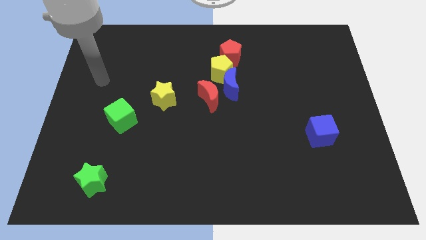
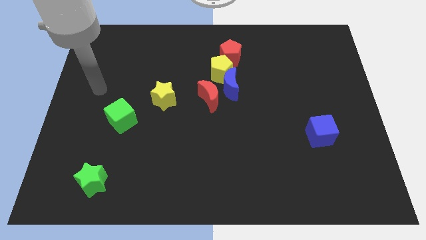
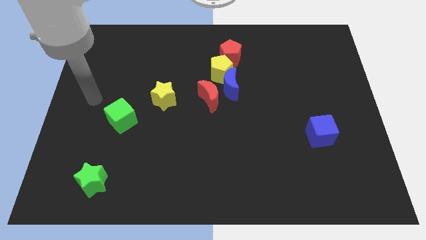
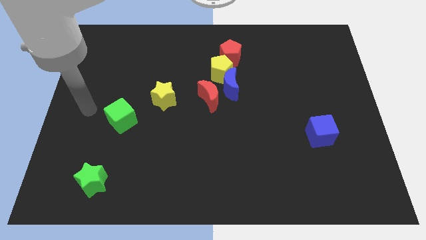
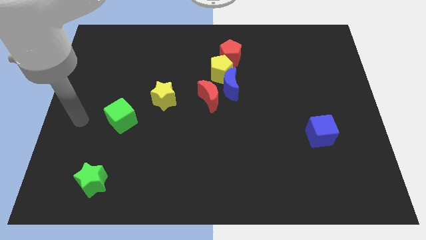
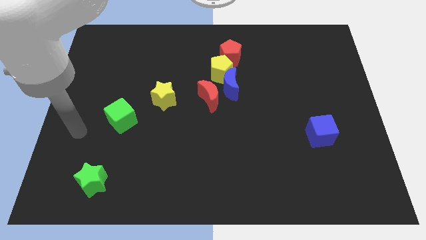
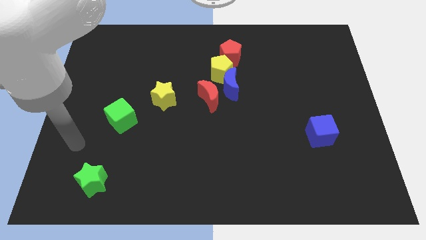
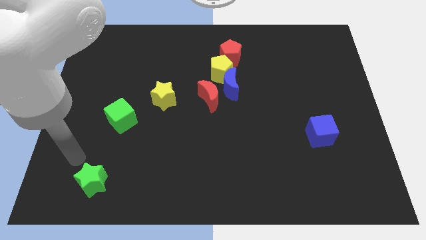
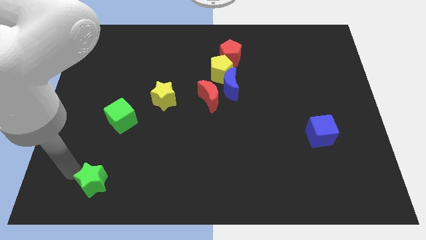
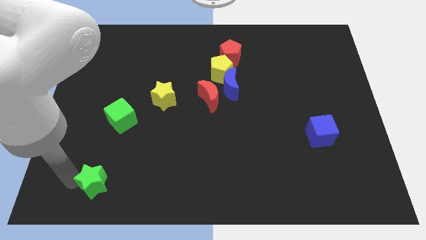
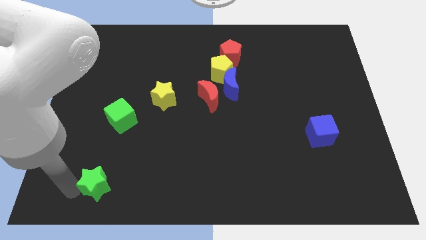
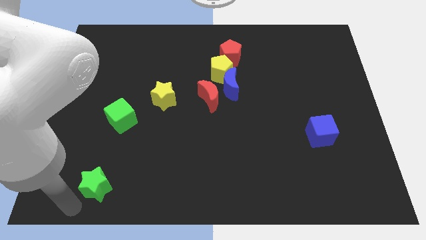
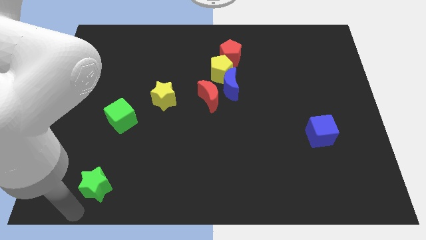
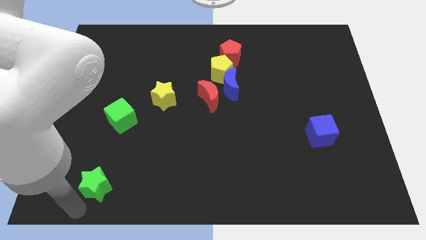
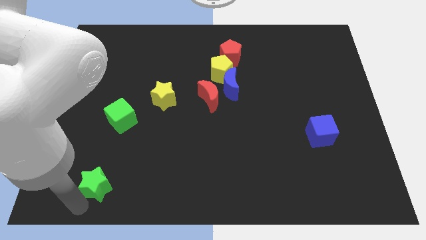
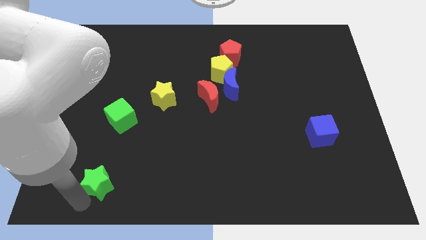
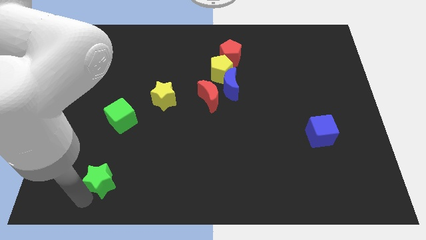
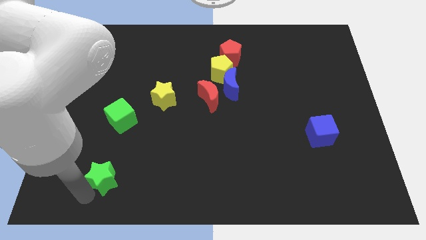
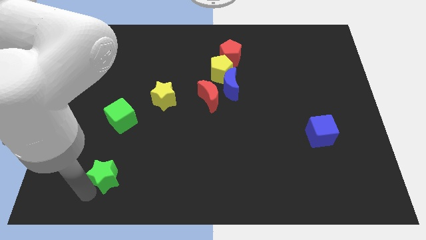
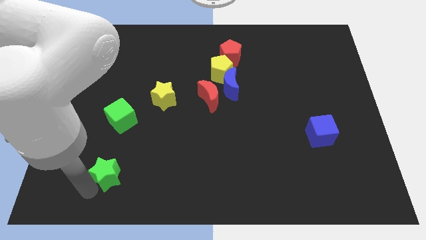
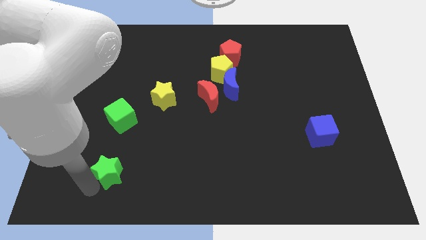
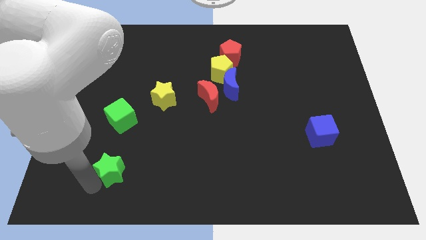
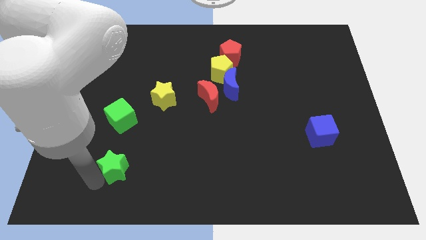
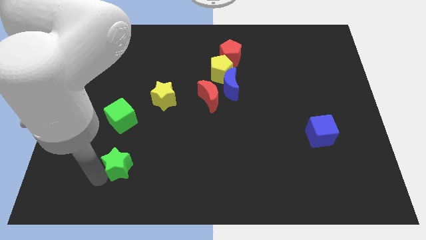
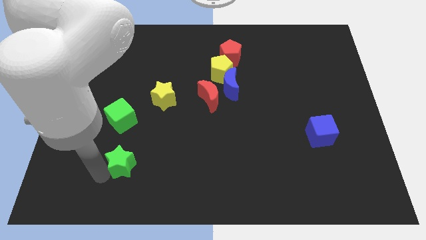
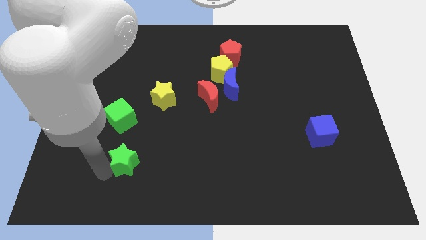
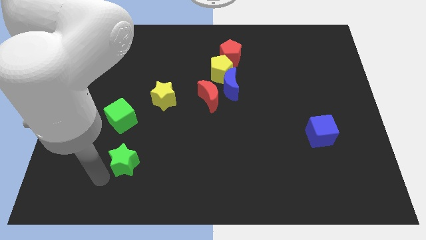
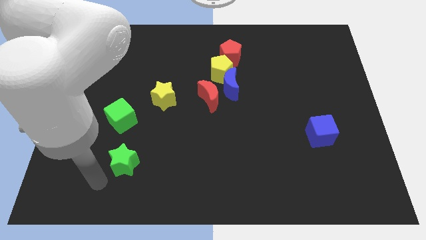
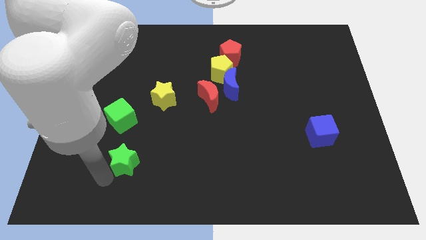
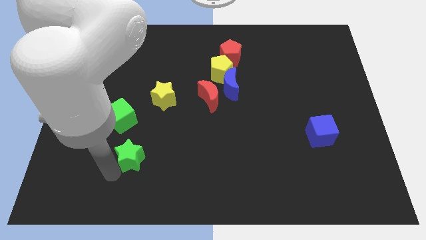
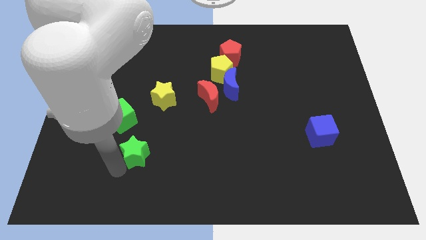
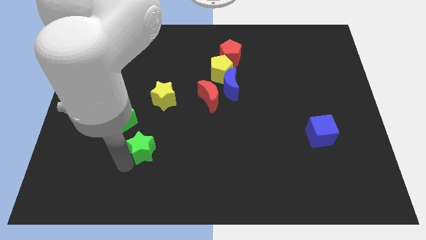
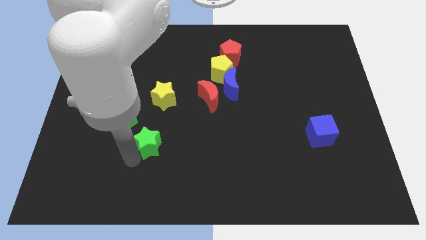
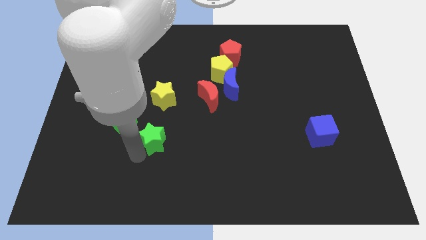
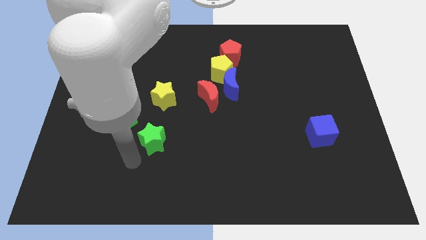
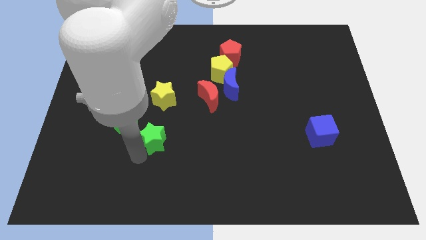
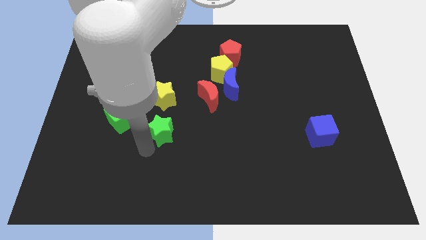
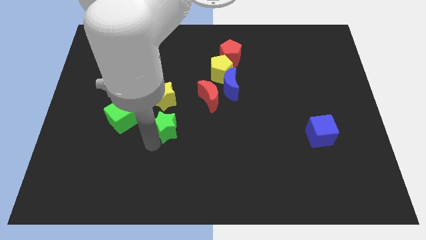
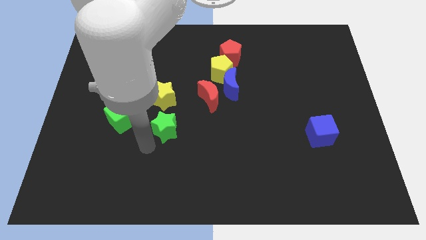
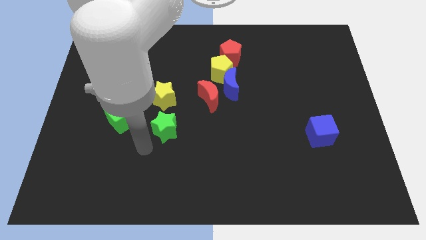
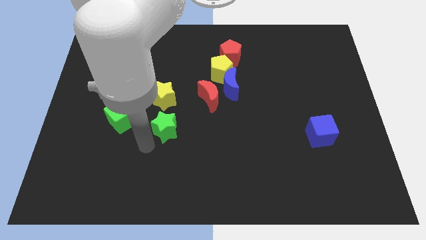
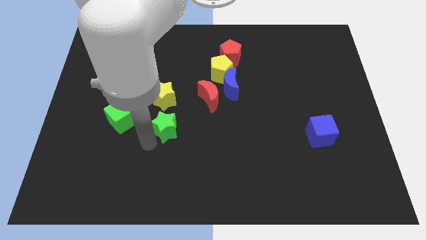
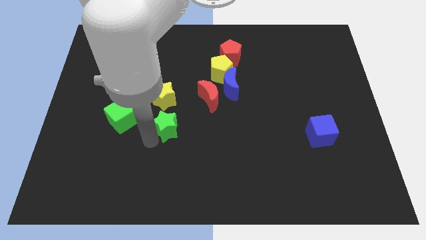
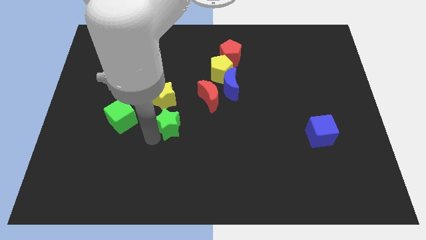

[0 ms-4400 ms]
put the green star to the bottom right of the yellow star

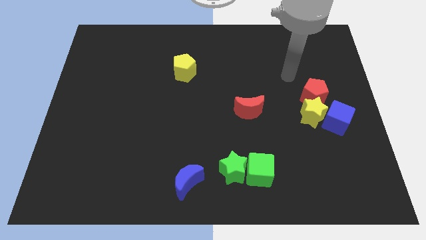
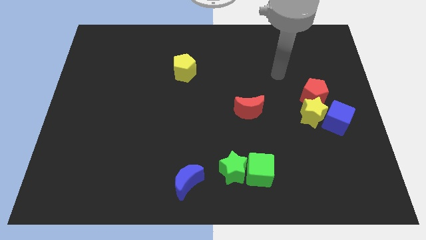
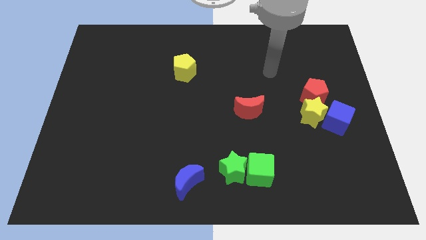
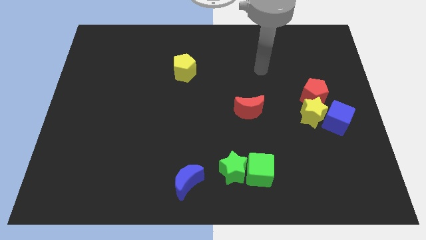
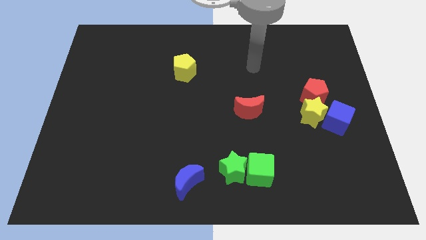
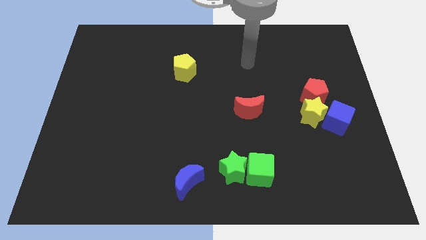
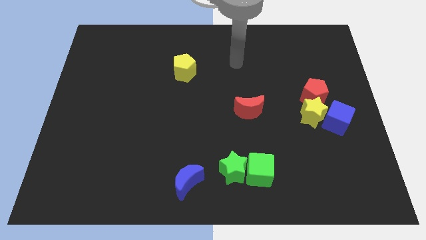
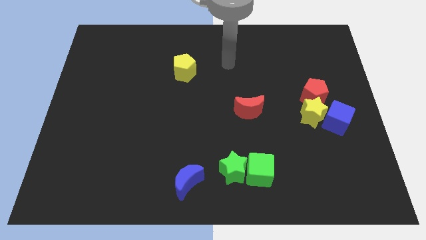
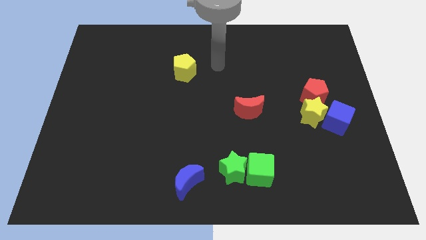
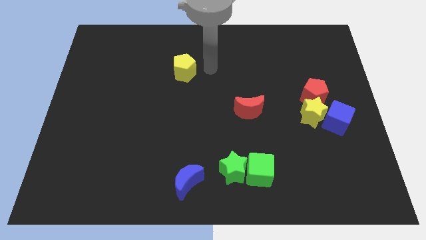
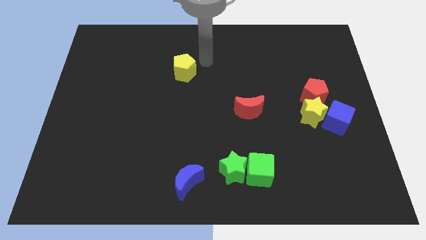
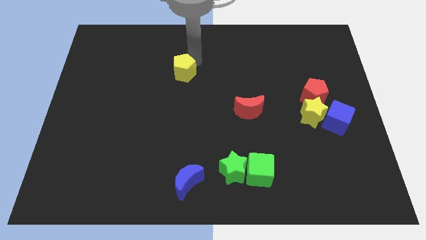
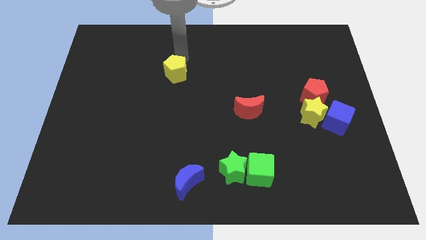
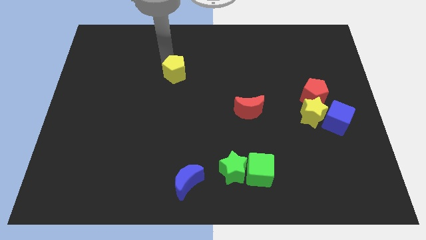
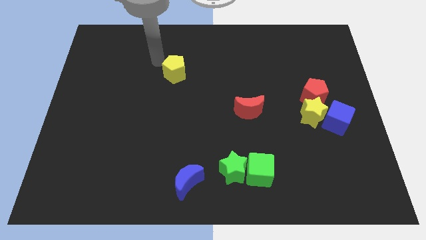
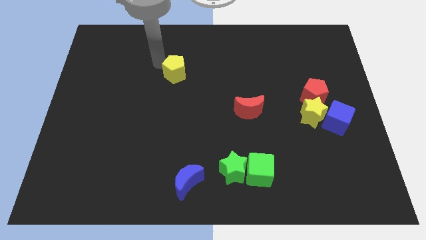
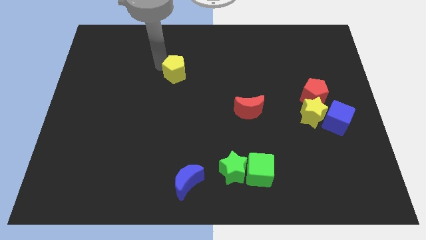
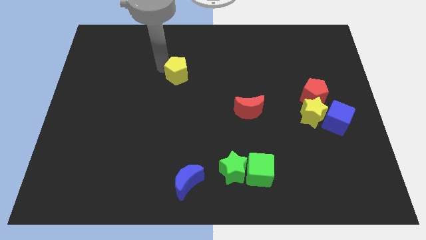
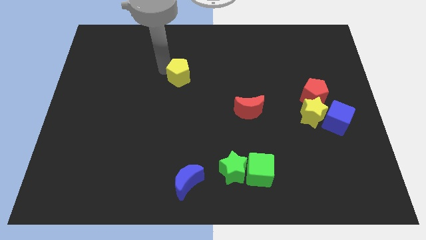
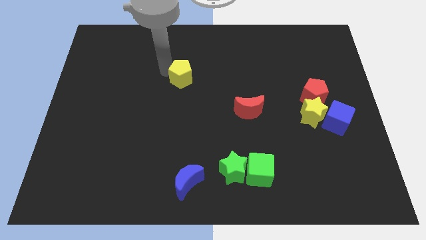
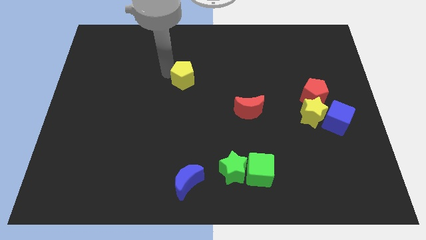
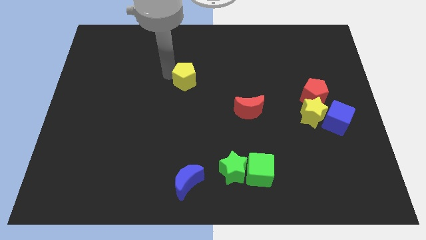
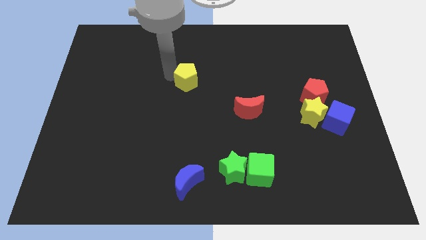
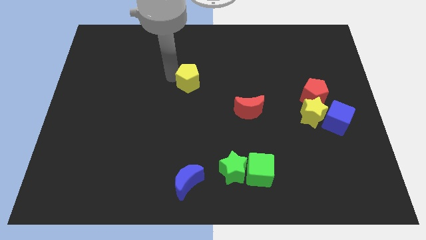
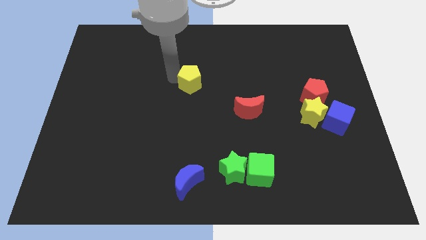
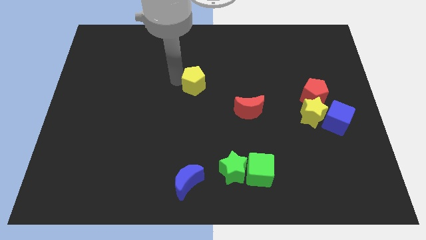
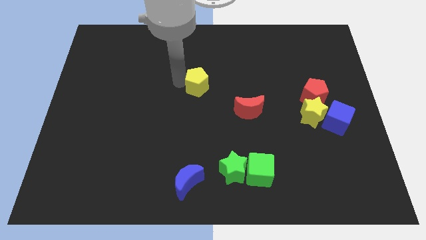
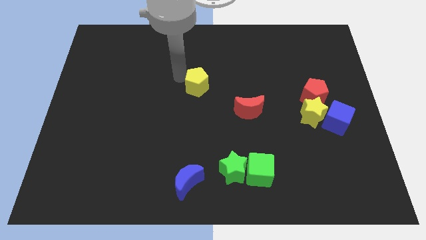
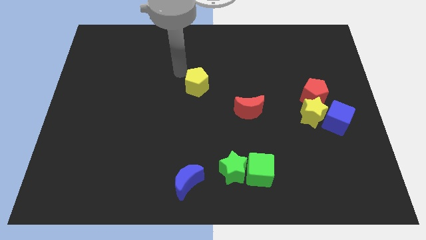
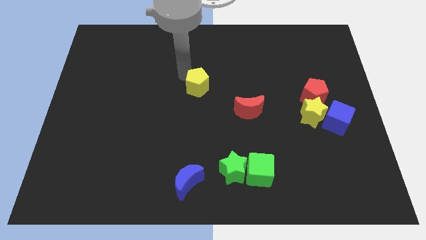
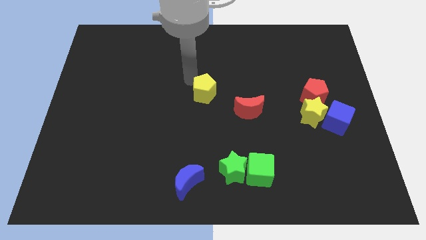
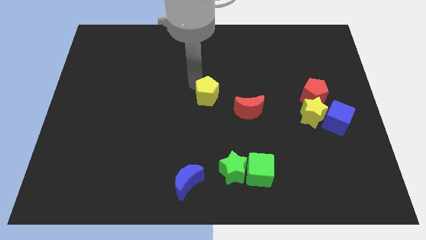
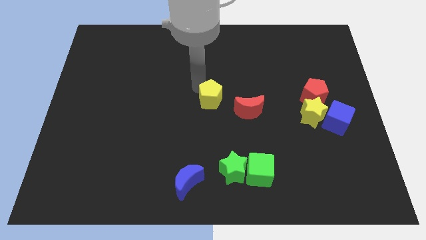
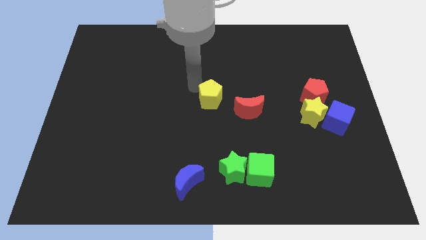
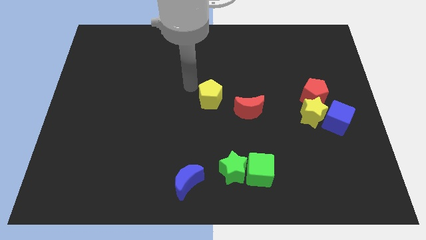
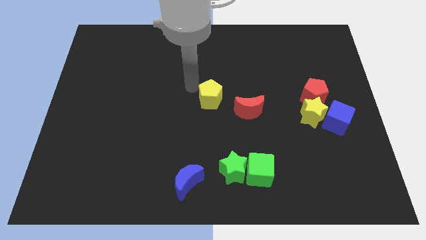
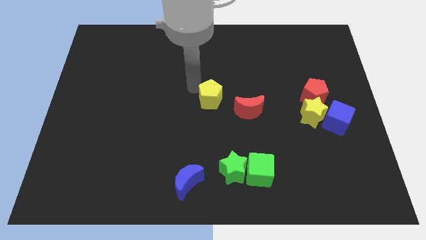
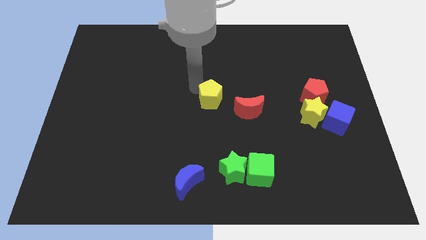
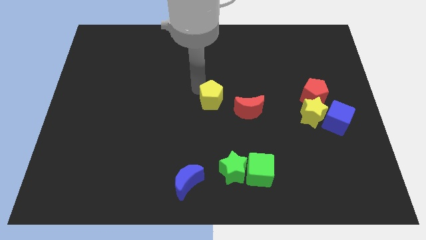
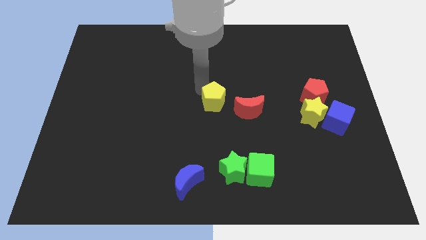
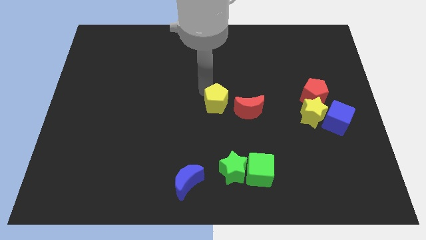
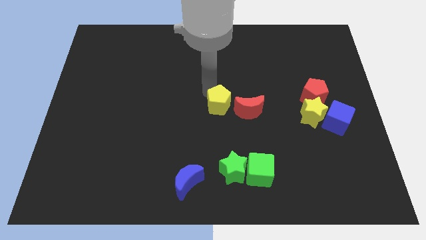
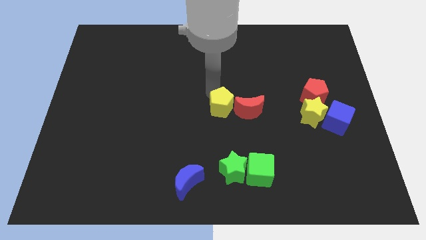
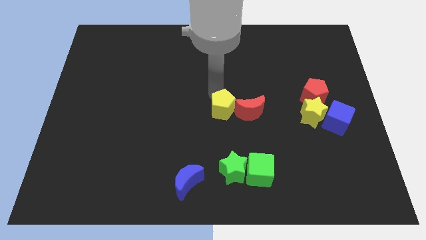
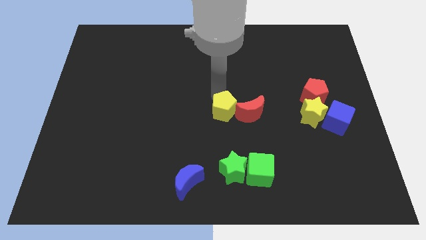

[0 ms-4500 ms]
push the yellow pentagon above the green star
